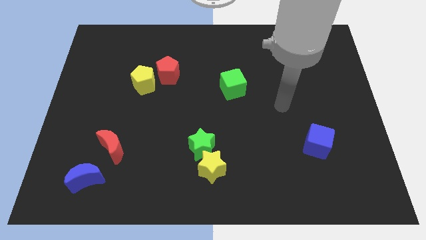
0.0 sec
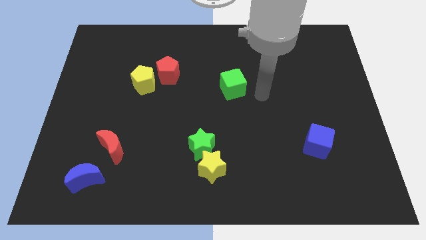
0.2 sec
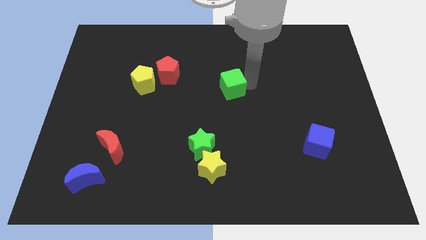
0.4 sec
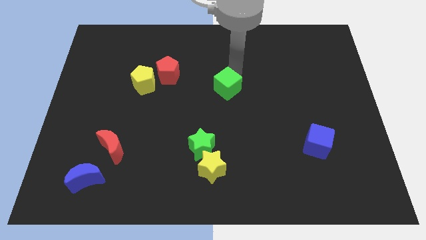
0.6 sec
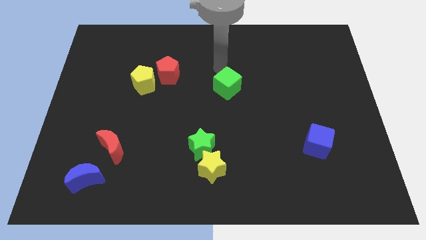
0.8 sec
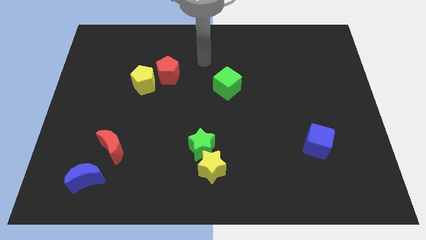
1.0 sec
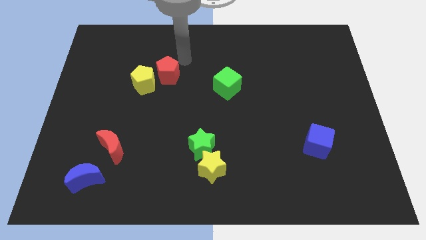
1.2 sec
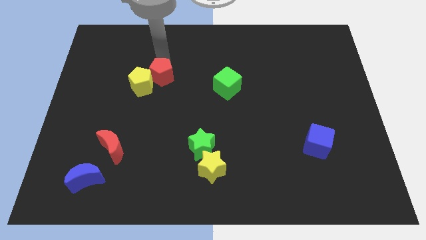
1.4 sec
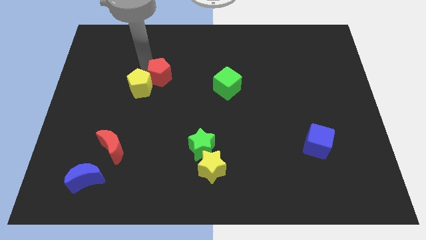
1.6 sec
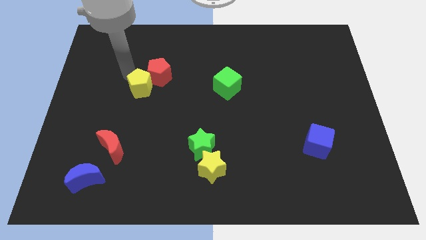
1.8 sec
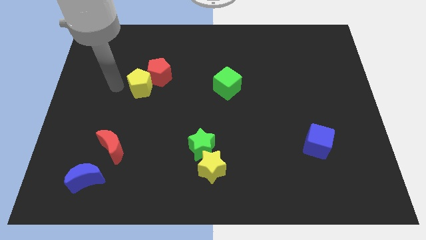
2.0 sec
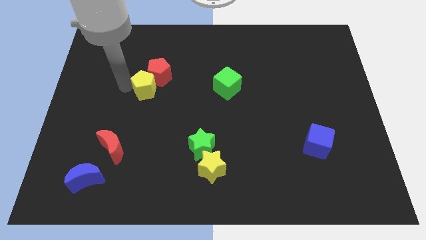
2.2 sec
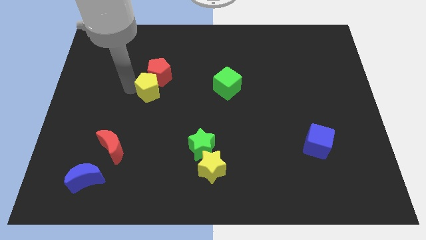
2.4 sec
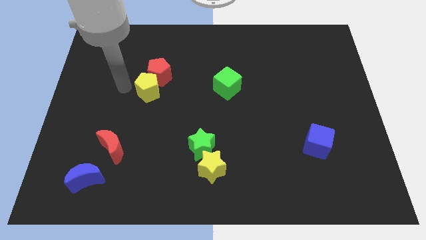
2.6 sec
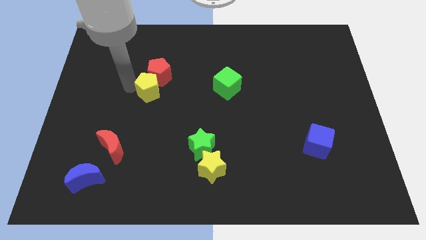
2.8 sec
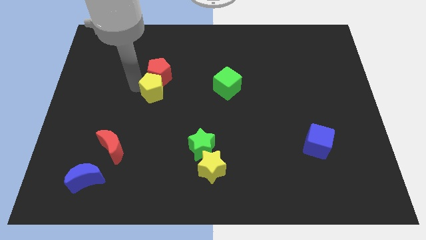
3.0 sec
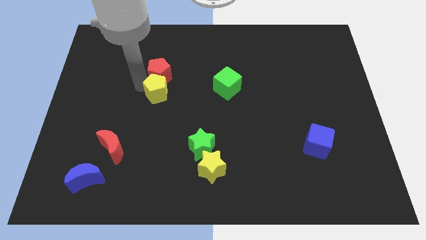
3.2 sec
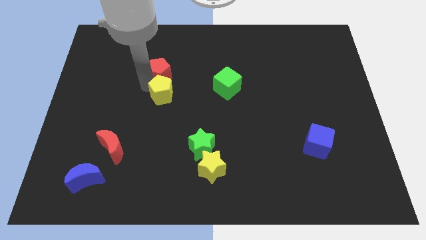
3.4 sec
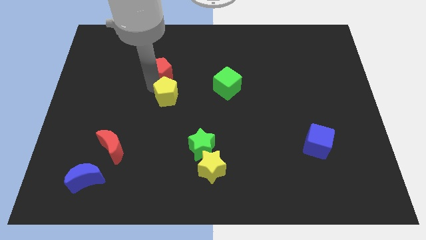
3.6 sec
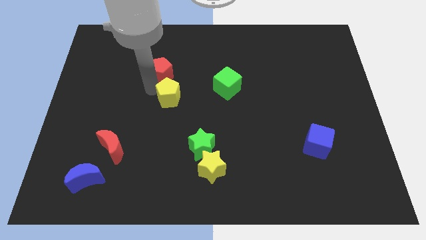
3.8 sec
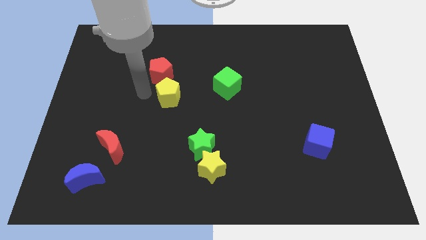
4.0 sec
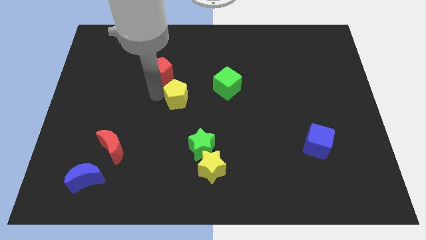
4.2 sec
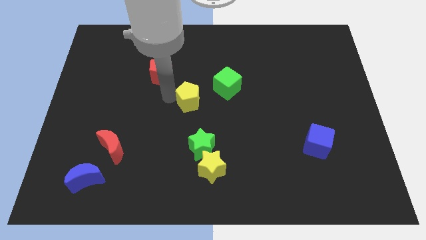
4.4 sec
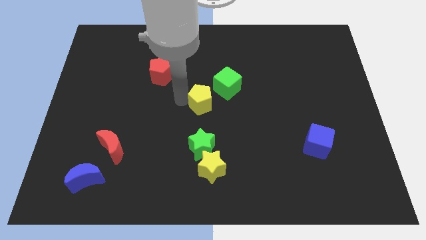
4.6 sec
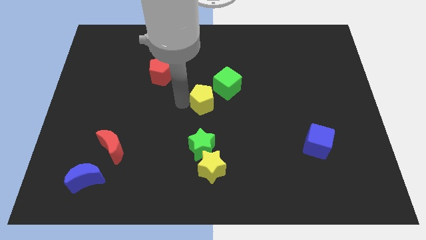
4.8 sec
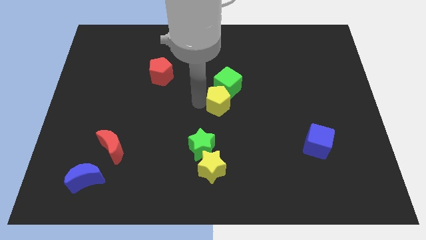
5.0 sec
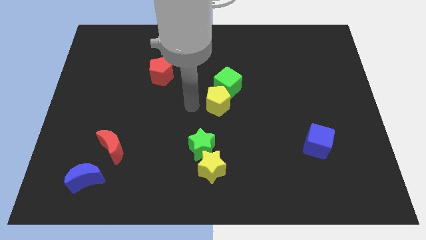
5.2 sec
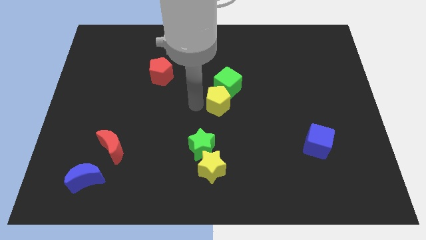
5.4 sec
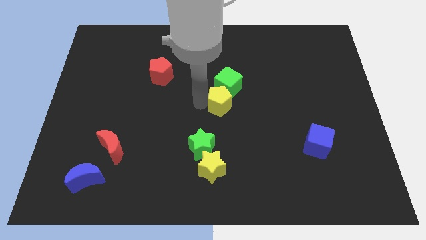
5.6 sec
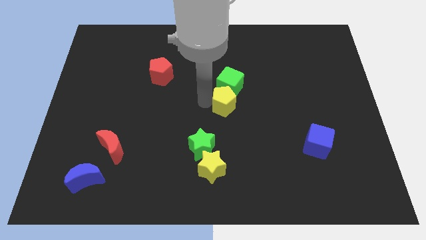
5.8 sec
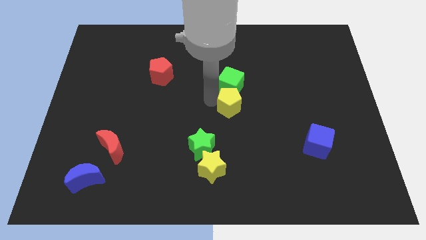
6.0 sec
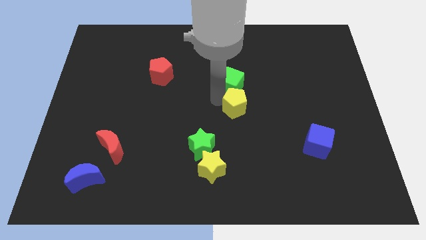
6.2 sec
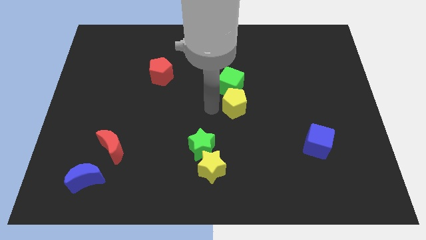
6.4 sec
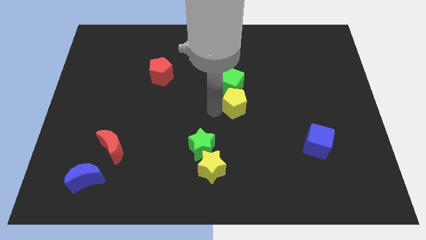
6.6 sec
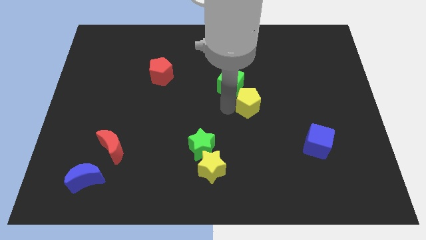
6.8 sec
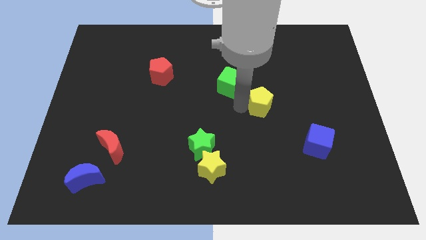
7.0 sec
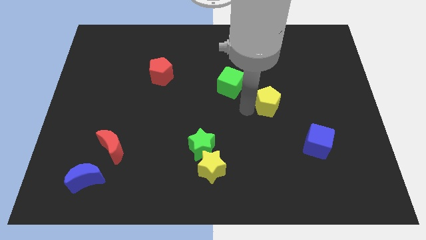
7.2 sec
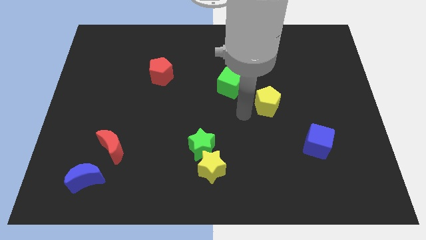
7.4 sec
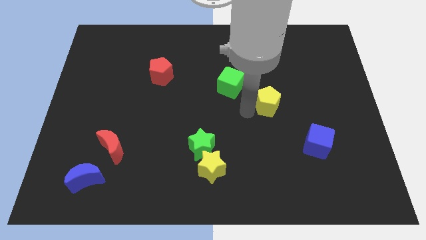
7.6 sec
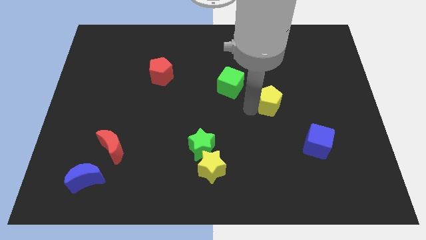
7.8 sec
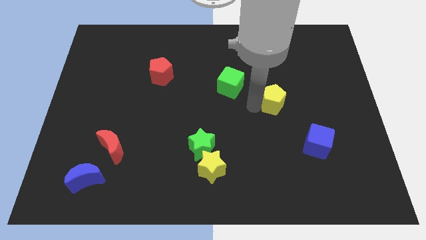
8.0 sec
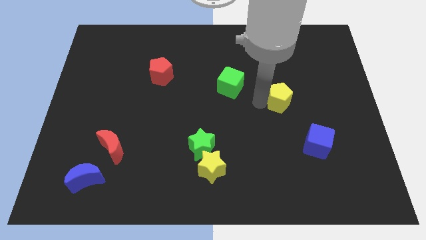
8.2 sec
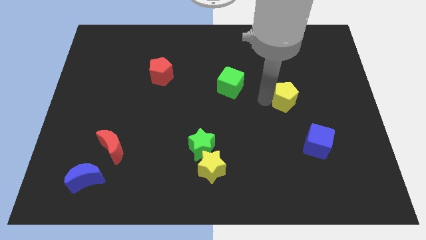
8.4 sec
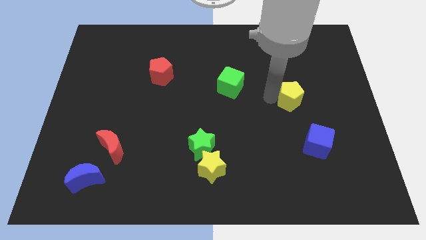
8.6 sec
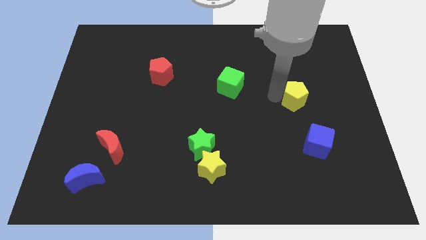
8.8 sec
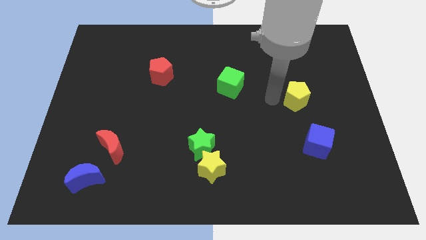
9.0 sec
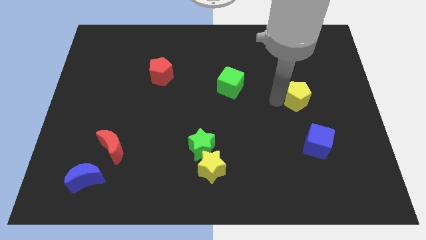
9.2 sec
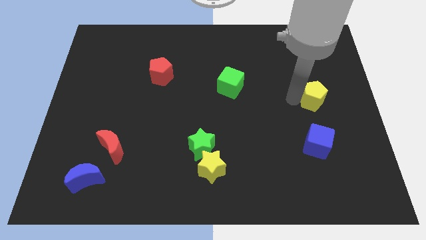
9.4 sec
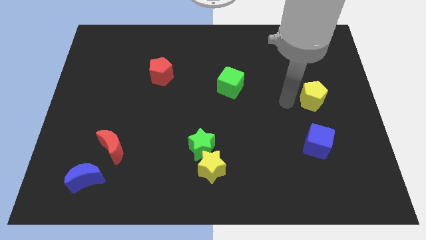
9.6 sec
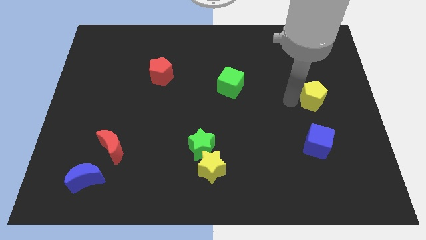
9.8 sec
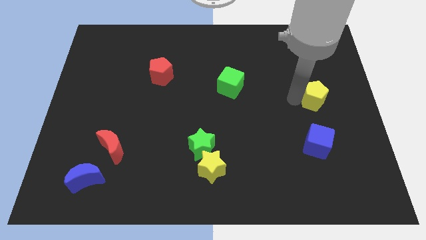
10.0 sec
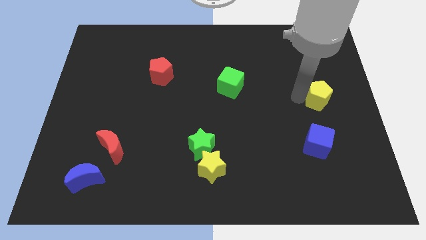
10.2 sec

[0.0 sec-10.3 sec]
slide the yellow pentagon to the center right

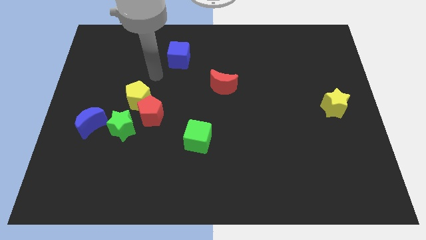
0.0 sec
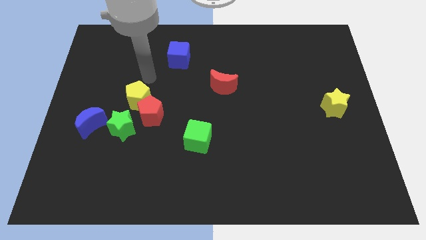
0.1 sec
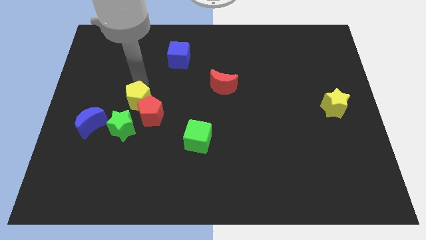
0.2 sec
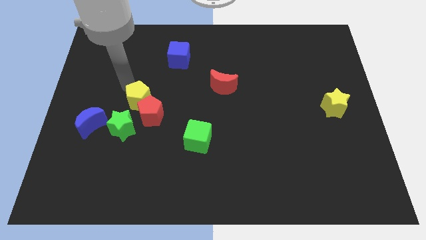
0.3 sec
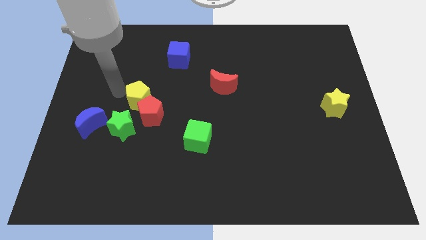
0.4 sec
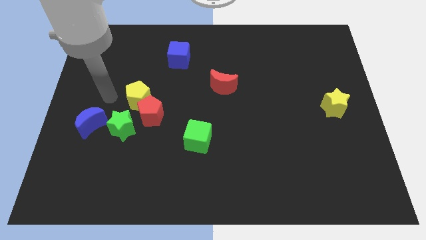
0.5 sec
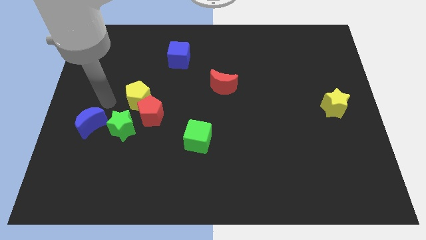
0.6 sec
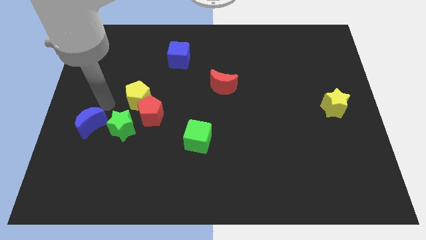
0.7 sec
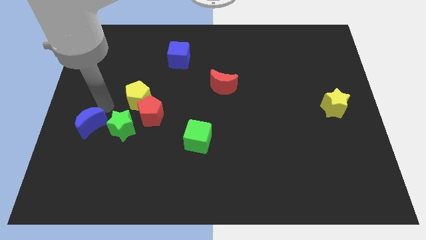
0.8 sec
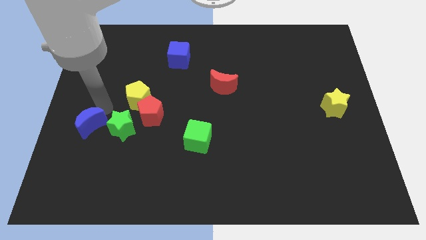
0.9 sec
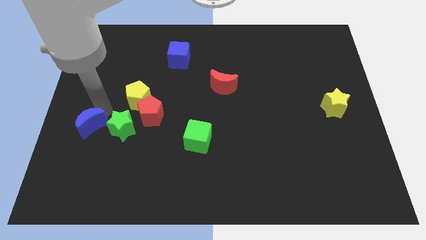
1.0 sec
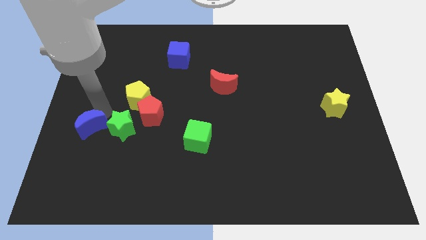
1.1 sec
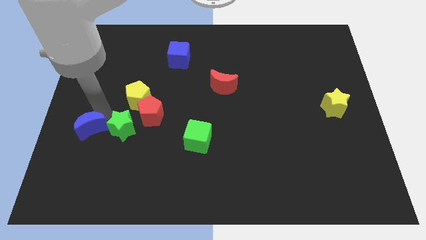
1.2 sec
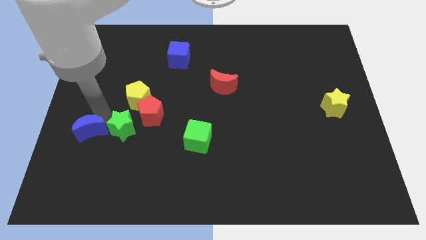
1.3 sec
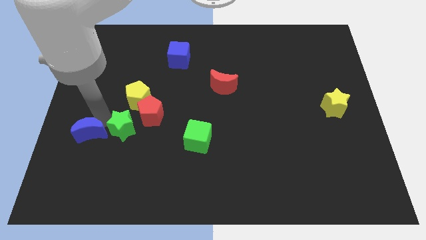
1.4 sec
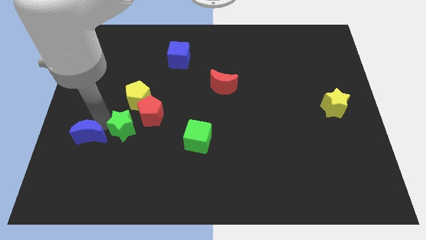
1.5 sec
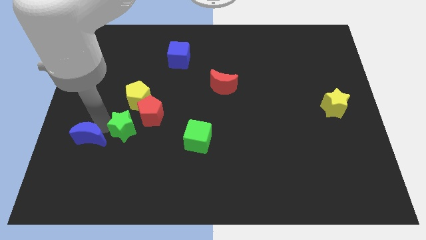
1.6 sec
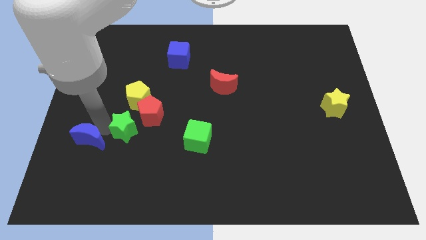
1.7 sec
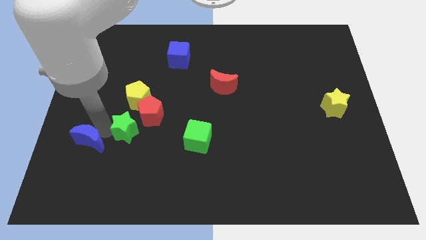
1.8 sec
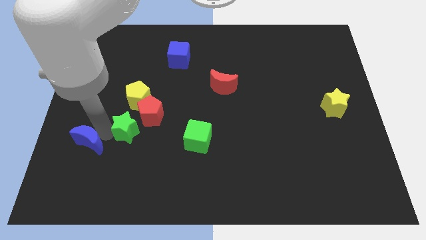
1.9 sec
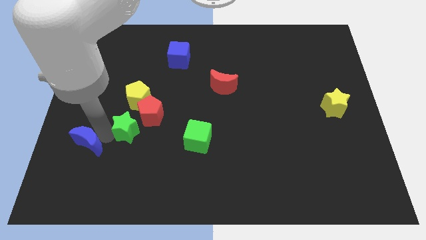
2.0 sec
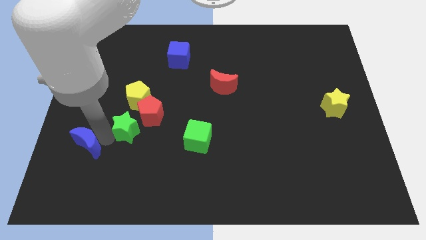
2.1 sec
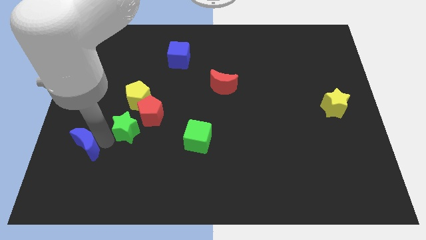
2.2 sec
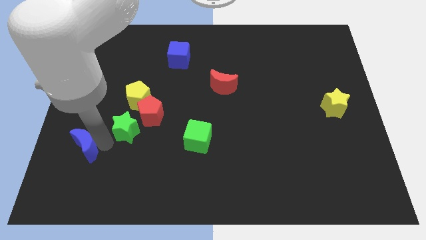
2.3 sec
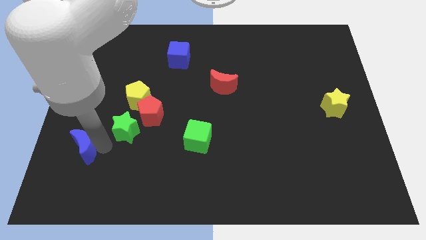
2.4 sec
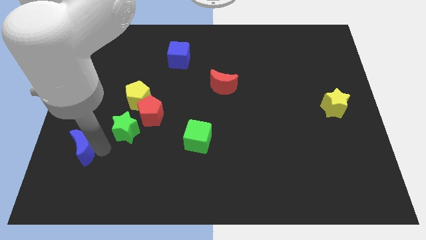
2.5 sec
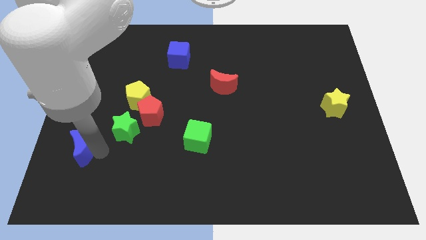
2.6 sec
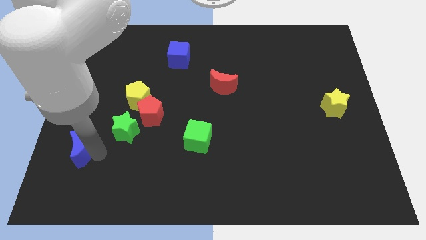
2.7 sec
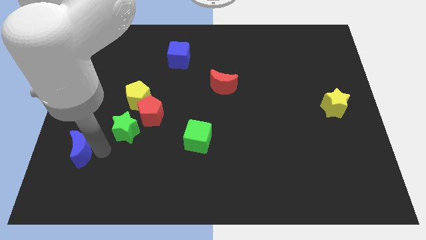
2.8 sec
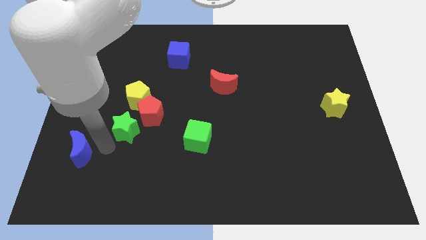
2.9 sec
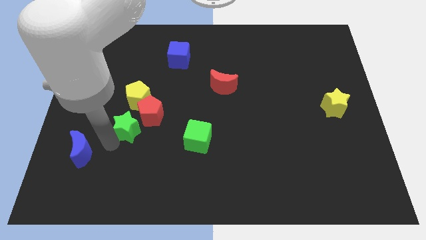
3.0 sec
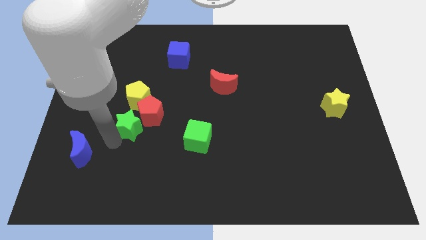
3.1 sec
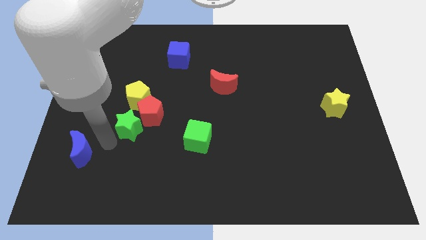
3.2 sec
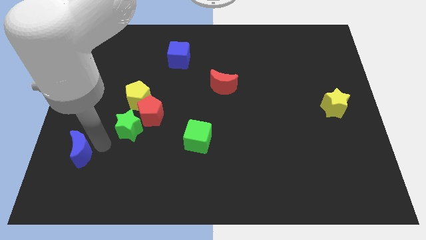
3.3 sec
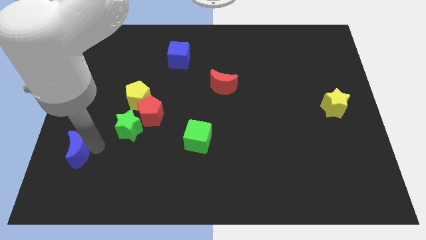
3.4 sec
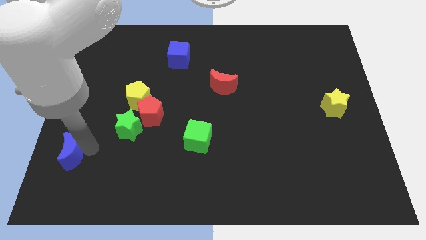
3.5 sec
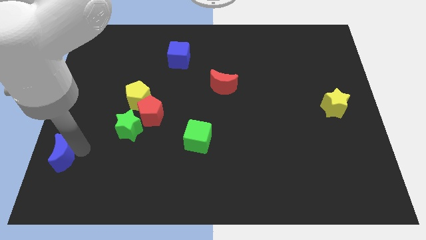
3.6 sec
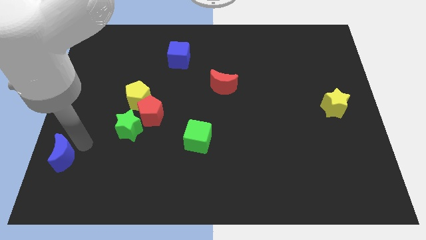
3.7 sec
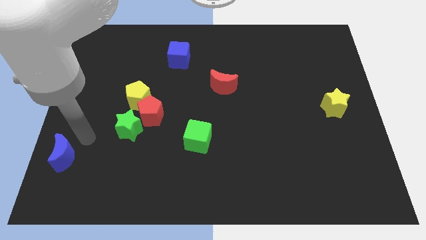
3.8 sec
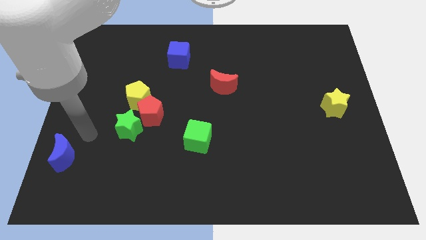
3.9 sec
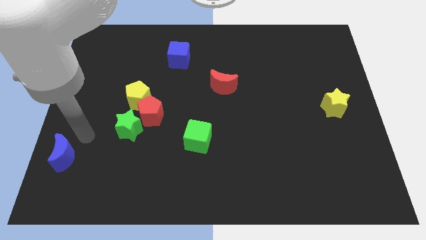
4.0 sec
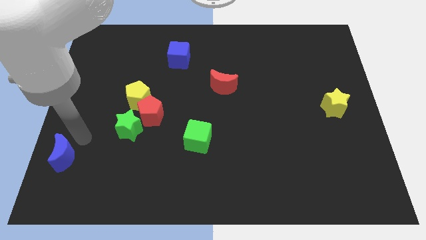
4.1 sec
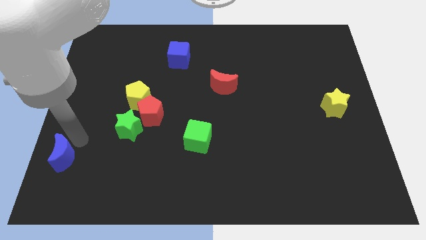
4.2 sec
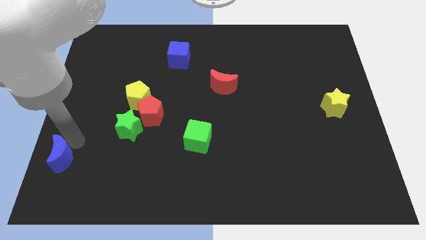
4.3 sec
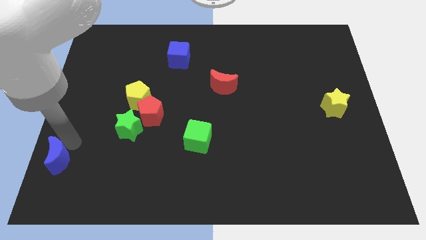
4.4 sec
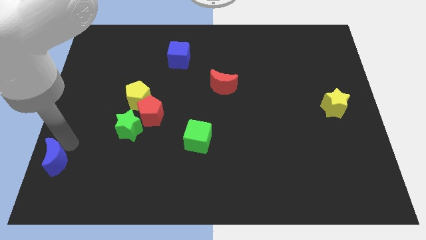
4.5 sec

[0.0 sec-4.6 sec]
slide the blue moon to the lower left corner
